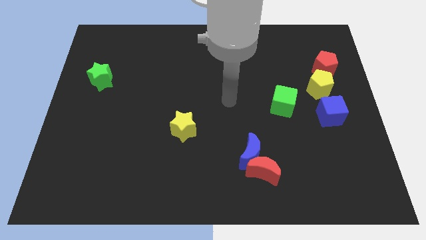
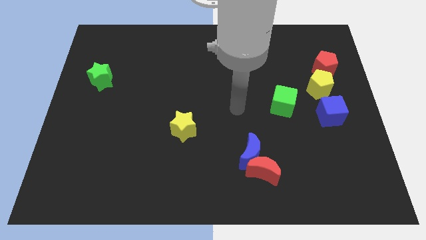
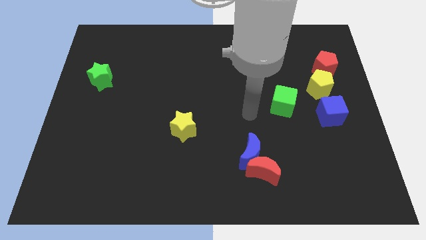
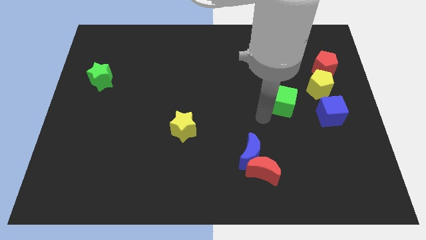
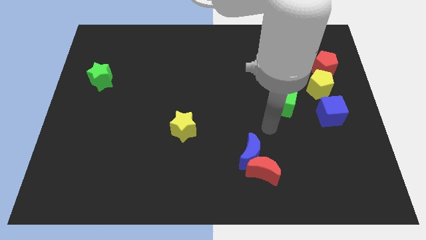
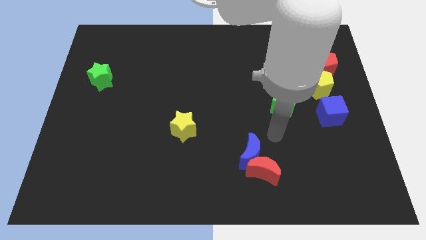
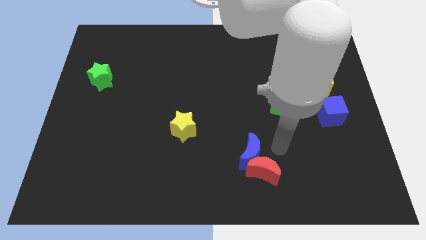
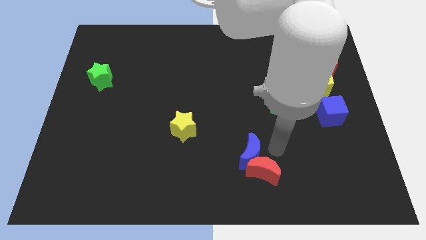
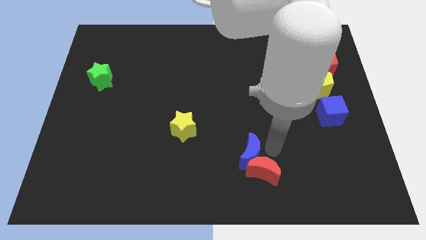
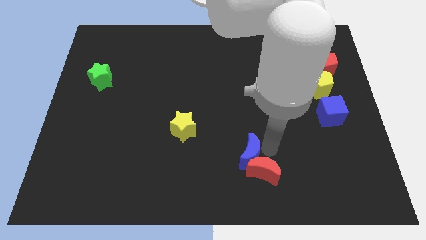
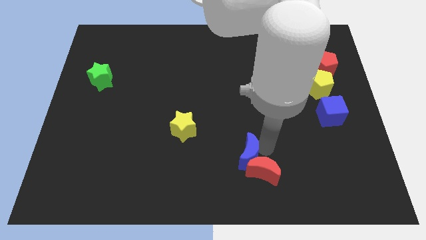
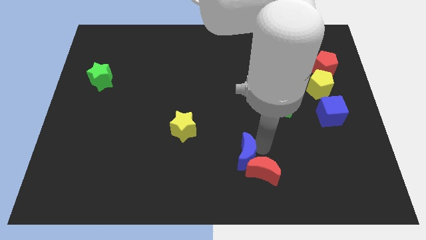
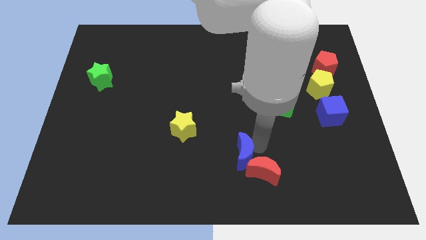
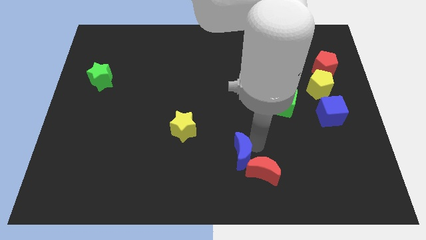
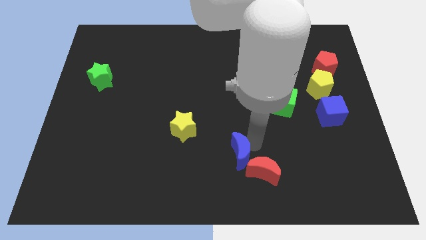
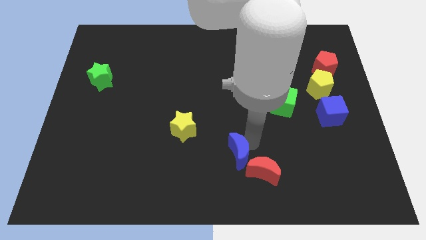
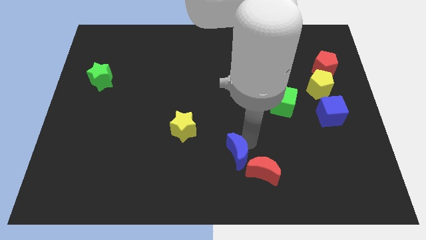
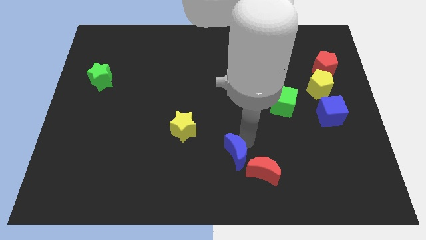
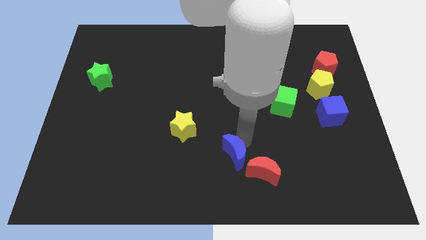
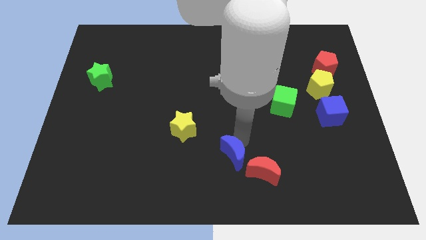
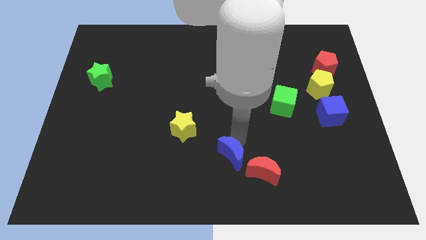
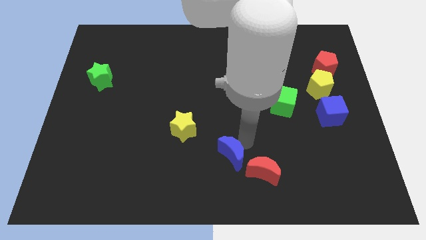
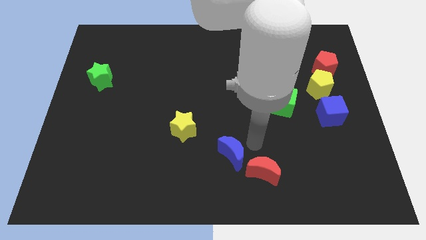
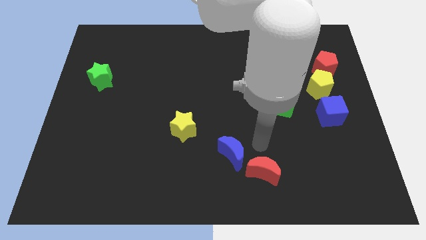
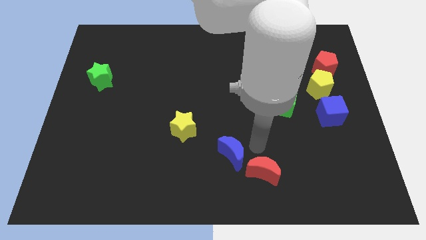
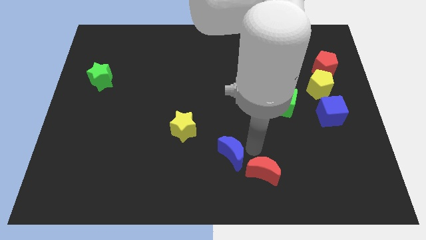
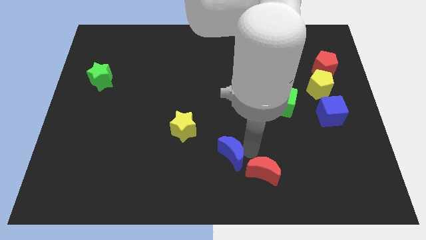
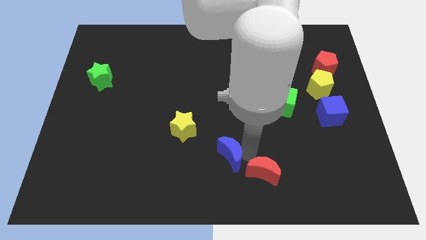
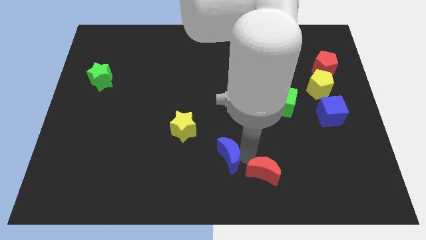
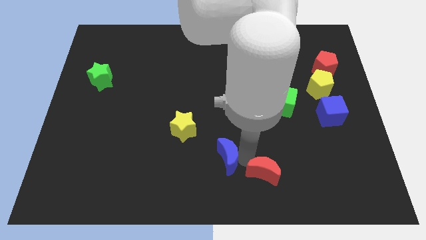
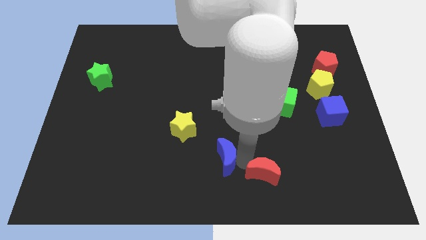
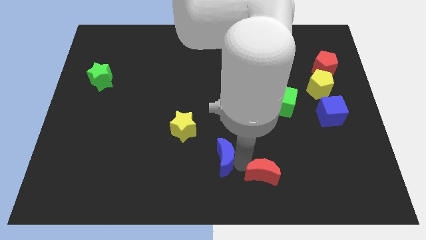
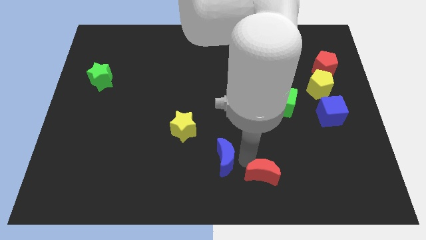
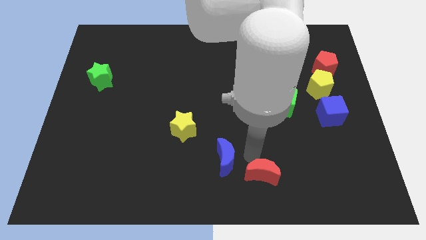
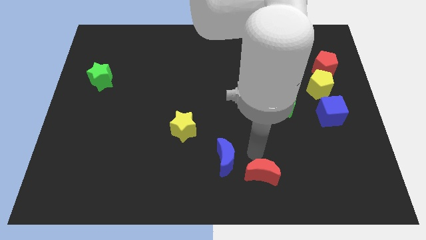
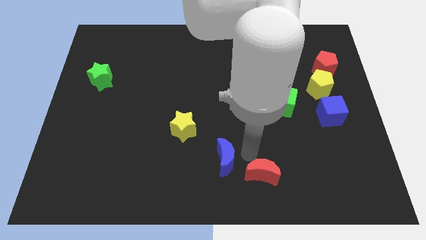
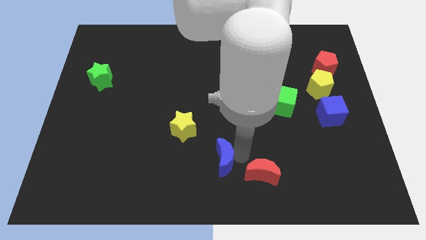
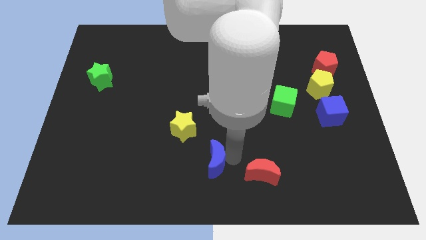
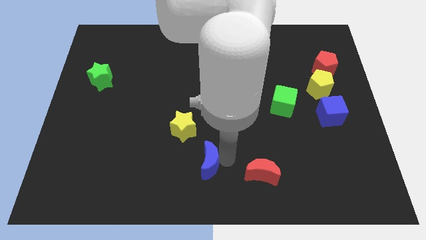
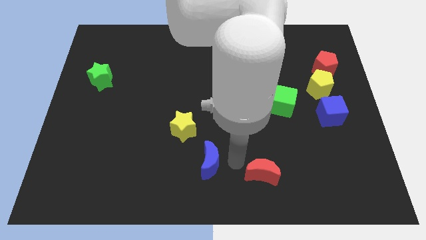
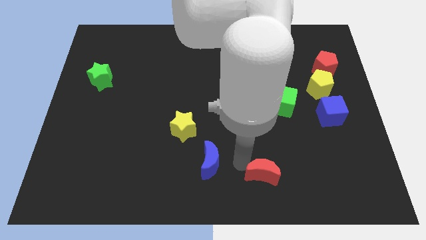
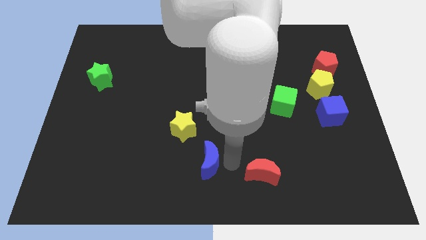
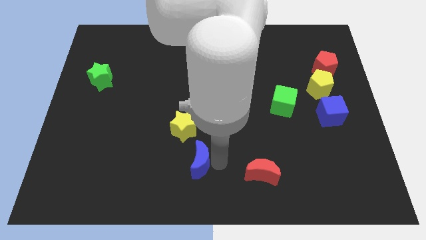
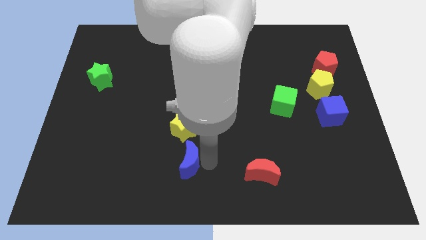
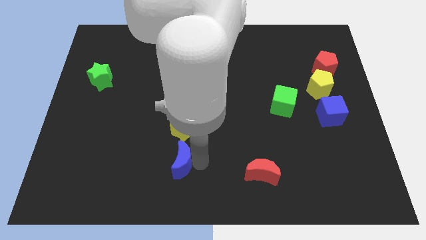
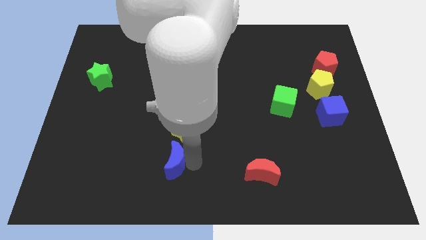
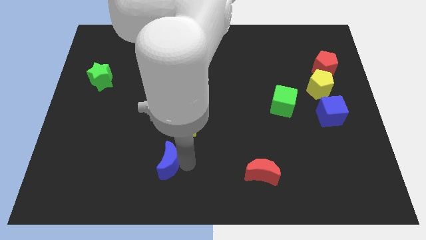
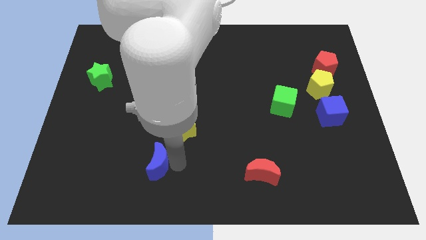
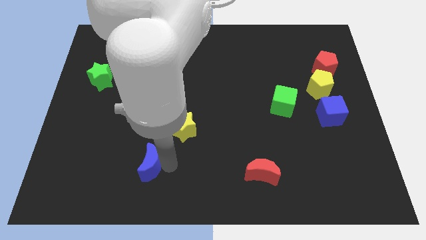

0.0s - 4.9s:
move the blue moon to the left

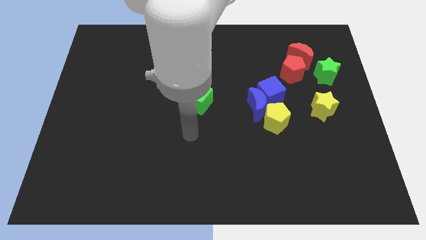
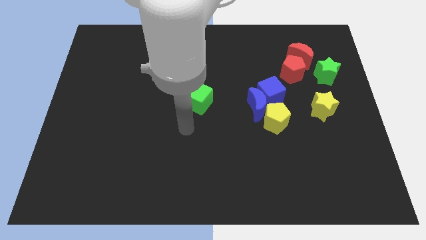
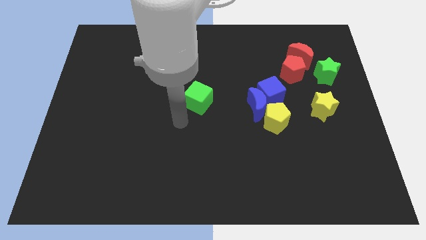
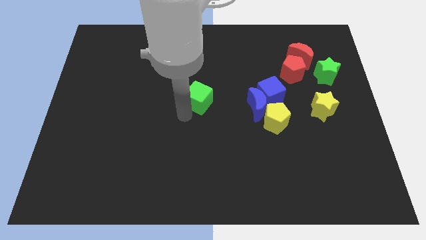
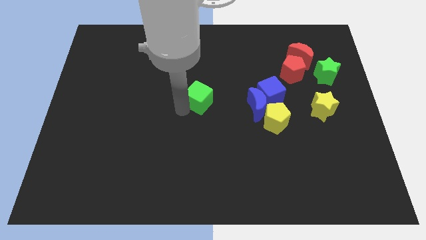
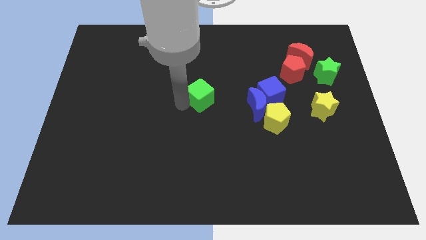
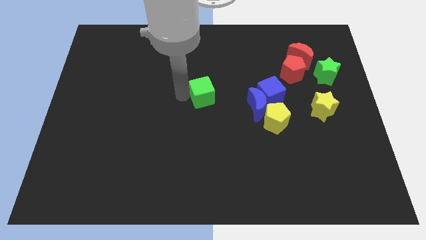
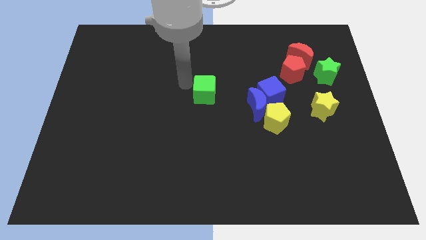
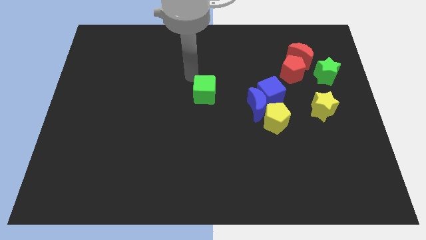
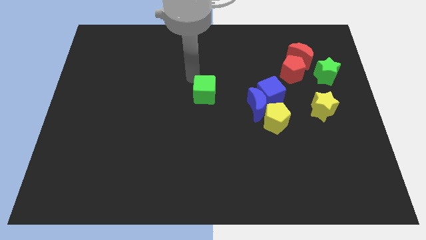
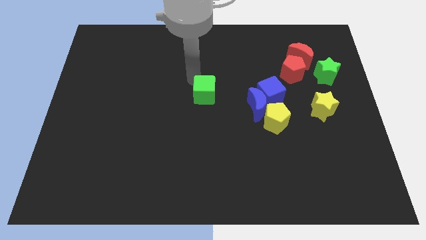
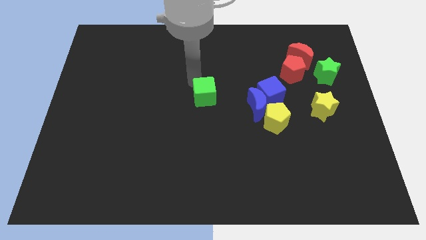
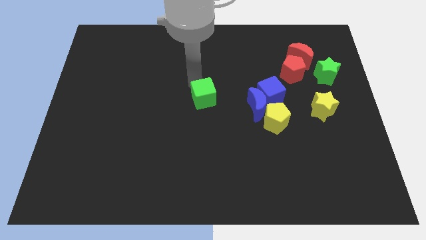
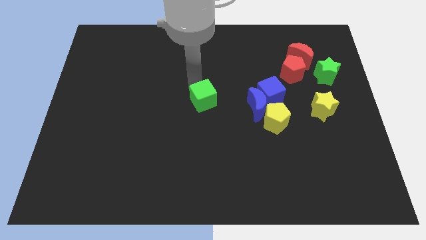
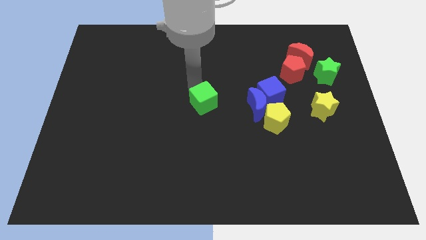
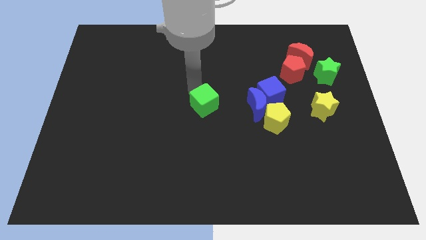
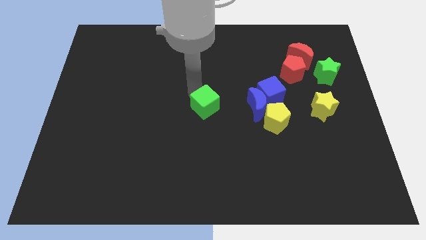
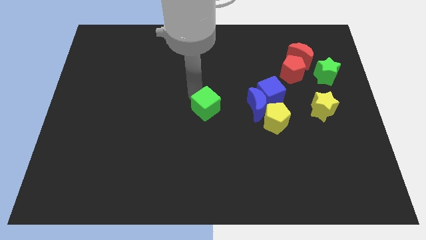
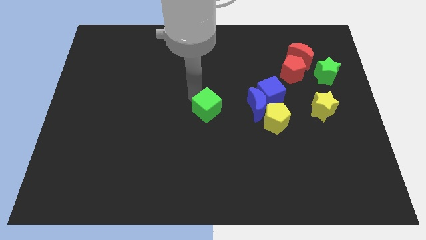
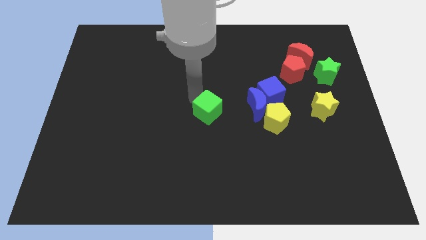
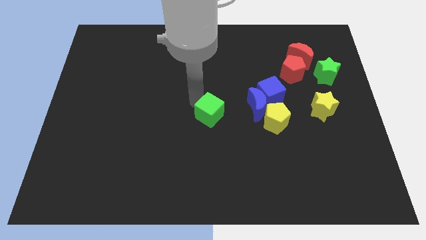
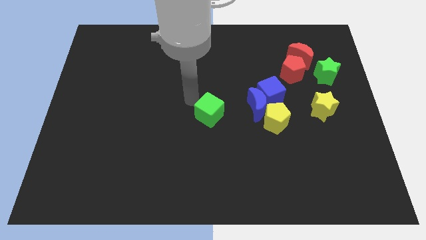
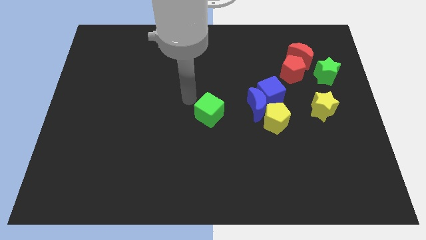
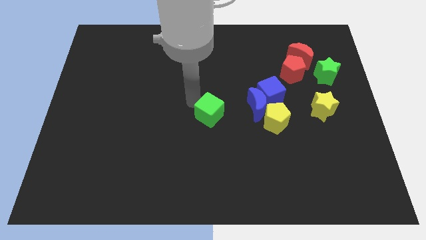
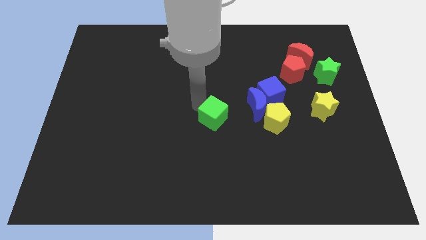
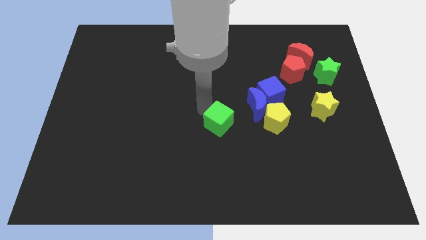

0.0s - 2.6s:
slide the green cube down and to the right a little bit

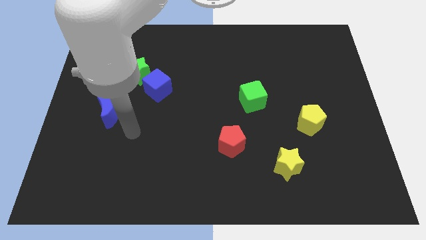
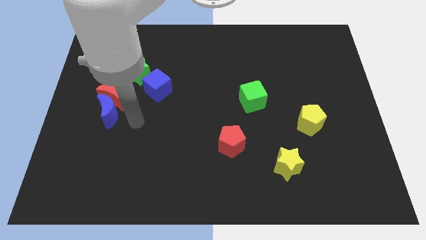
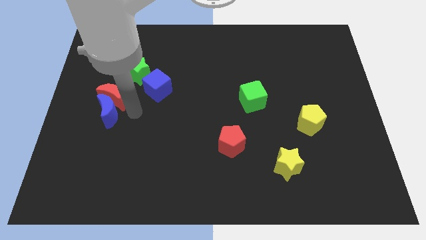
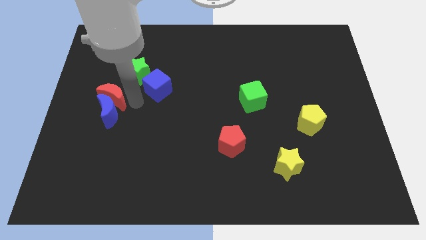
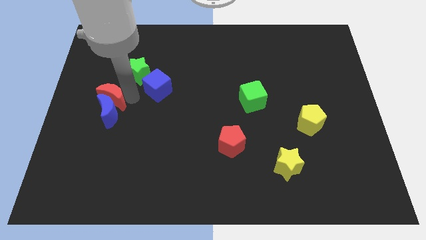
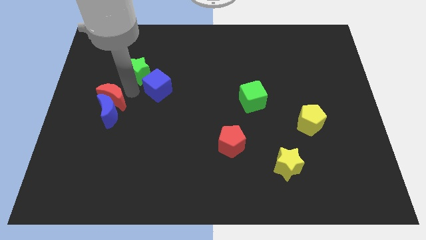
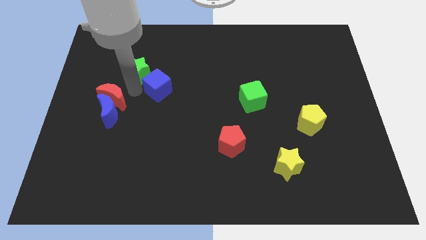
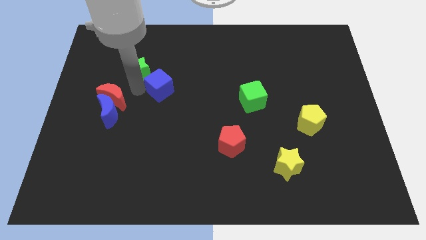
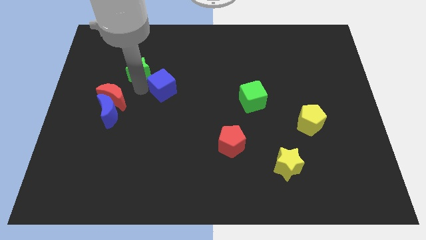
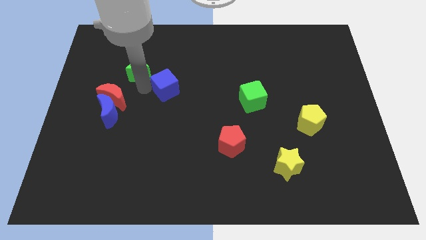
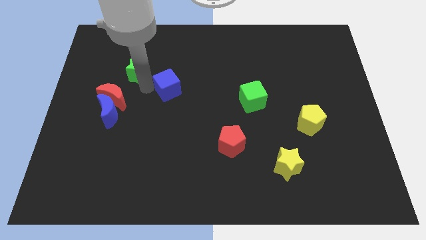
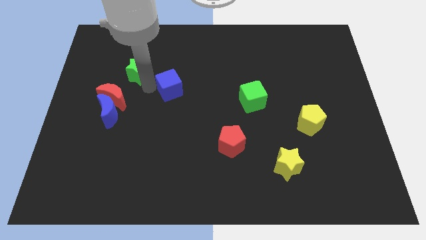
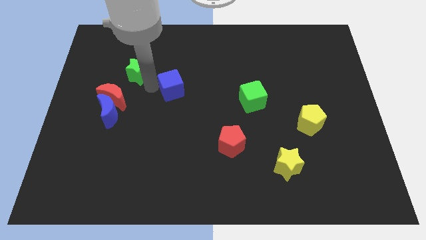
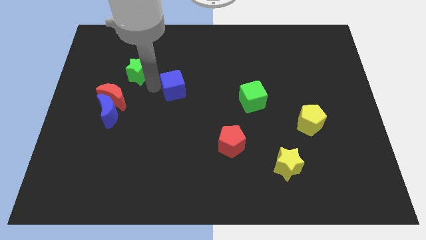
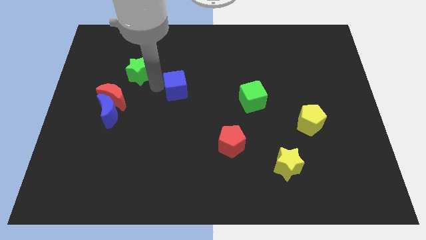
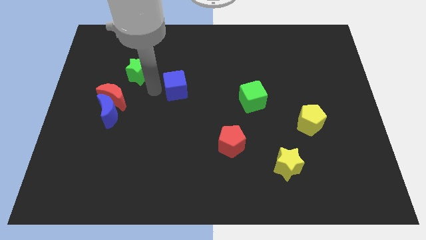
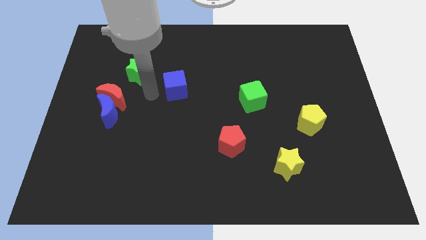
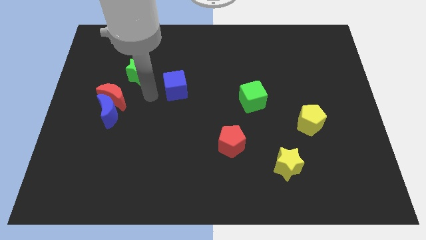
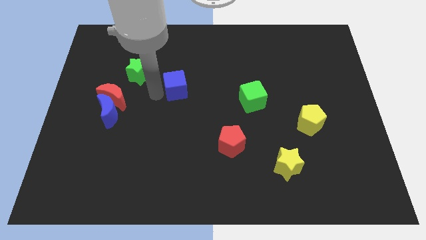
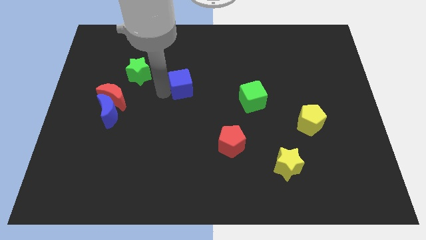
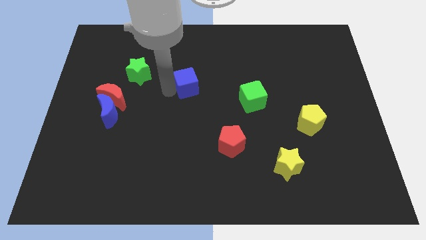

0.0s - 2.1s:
move the blue cube to the right slightly
